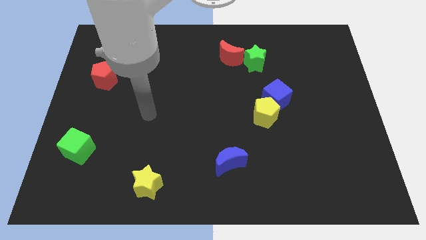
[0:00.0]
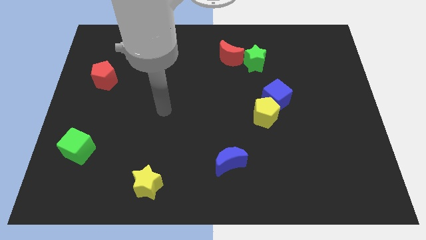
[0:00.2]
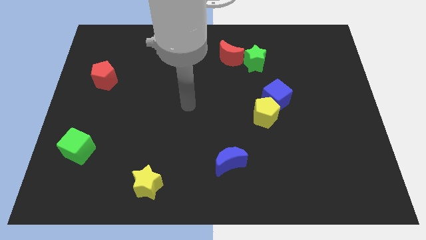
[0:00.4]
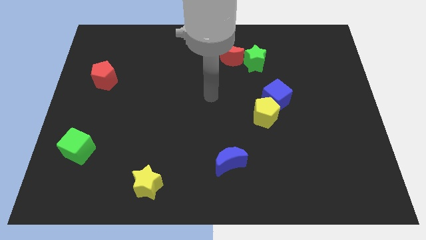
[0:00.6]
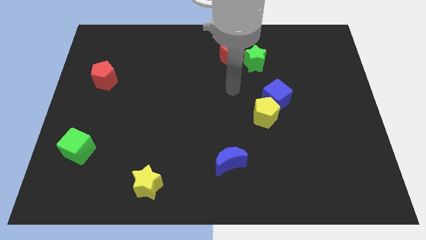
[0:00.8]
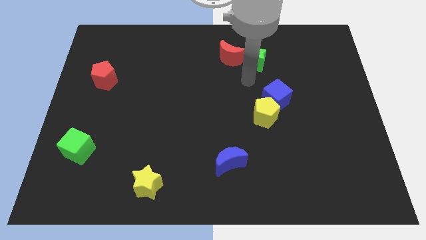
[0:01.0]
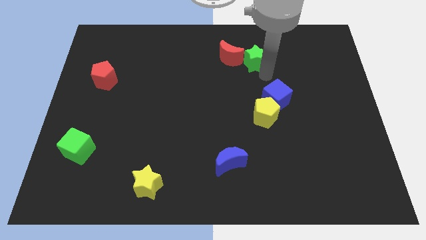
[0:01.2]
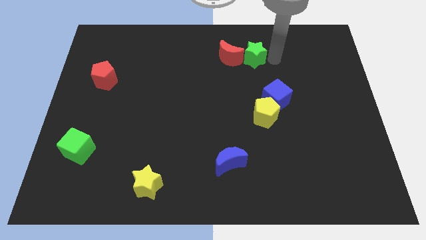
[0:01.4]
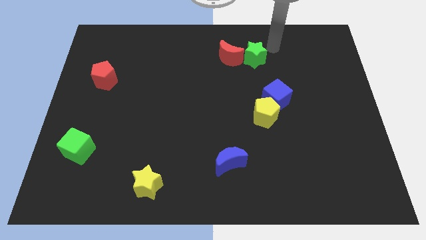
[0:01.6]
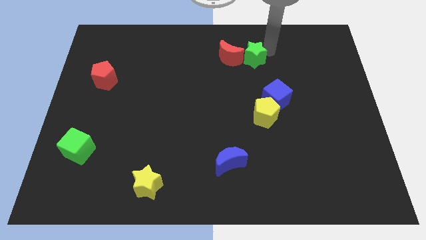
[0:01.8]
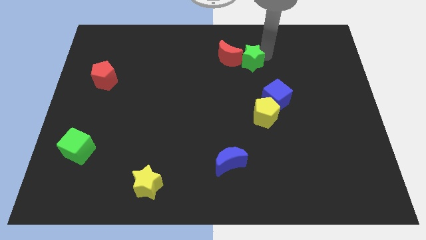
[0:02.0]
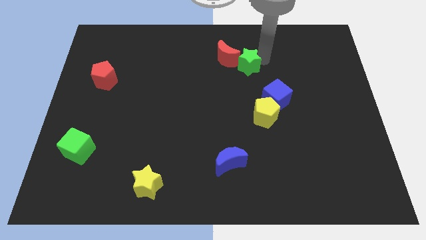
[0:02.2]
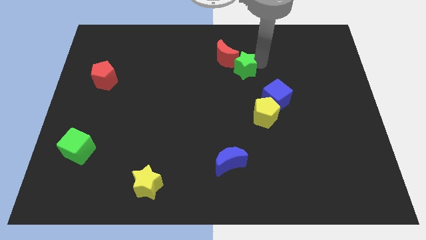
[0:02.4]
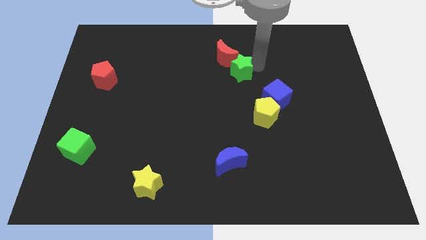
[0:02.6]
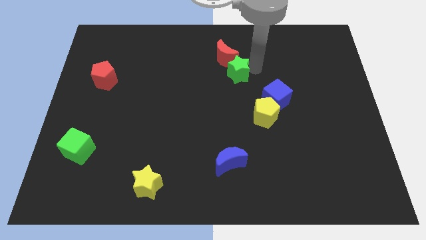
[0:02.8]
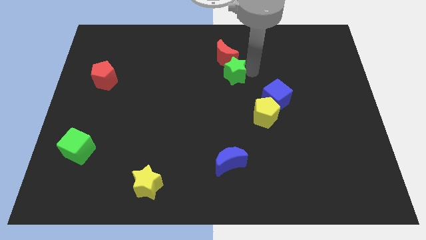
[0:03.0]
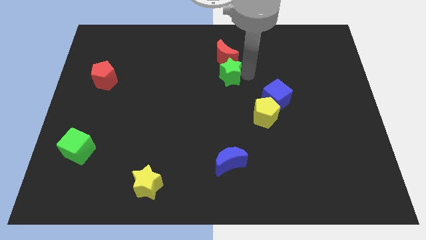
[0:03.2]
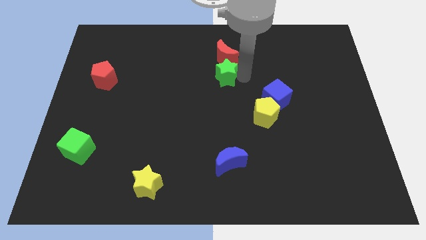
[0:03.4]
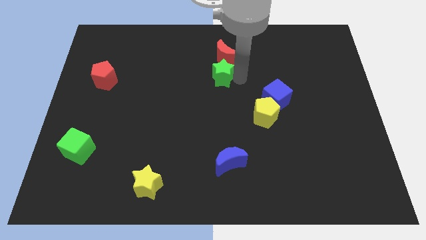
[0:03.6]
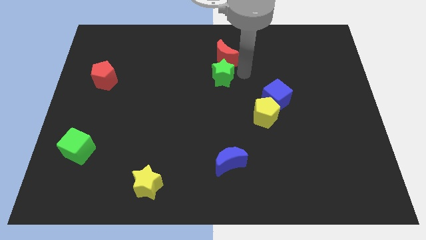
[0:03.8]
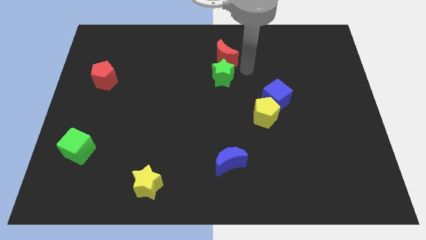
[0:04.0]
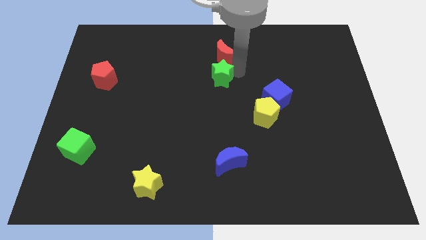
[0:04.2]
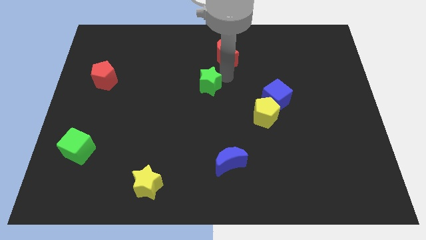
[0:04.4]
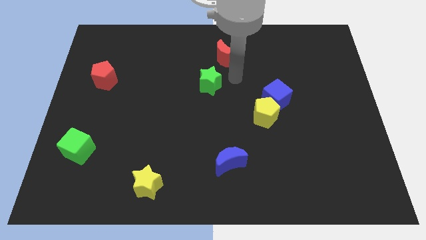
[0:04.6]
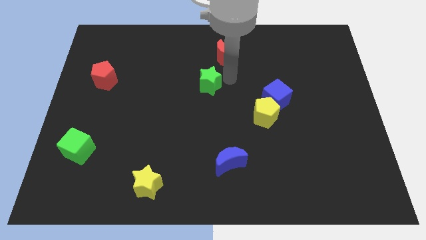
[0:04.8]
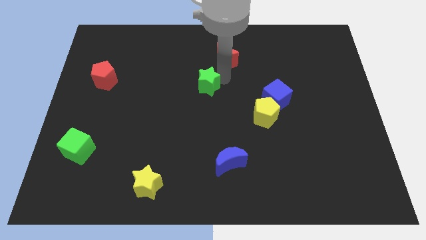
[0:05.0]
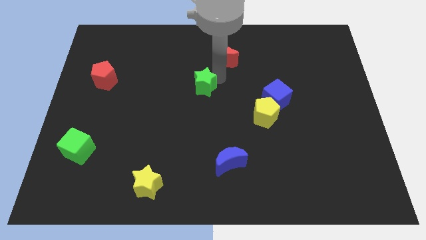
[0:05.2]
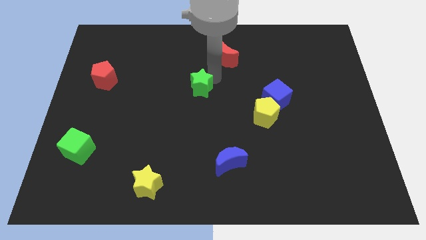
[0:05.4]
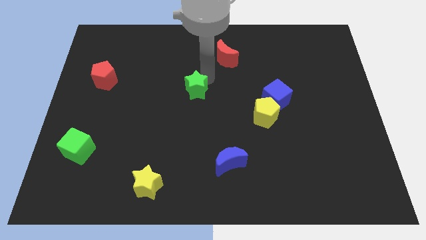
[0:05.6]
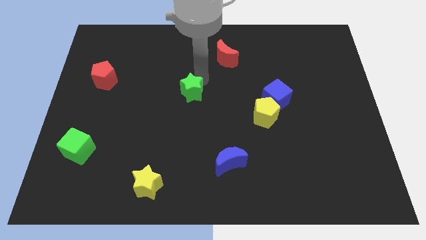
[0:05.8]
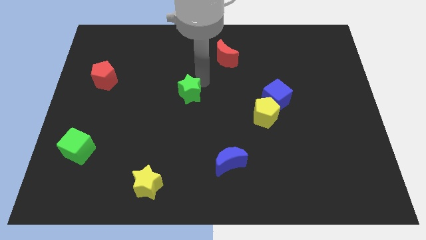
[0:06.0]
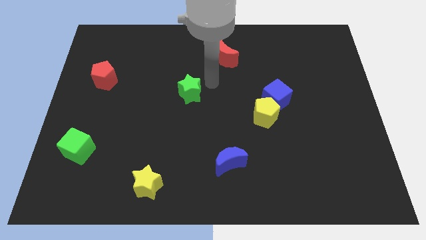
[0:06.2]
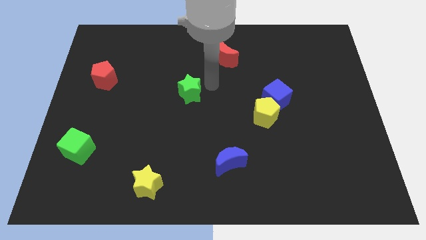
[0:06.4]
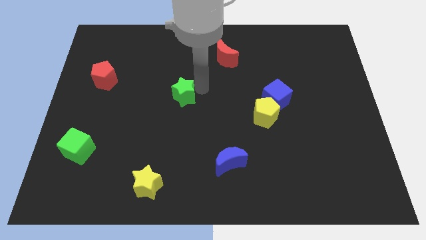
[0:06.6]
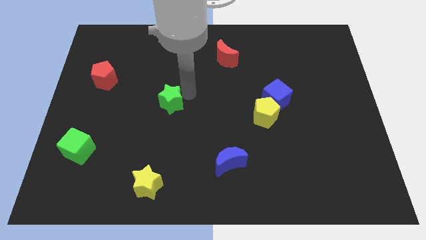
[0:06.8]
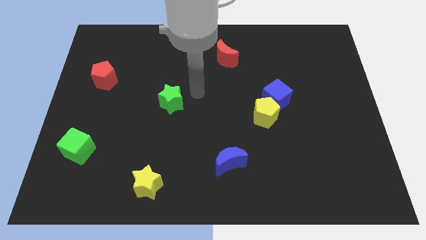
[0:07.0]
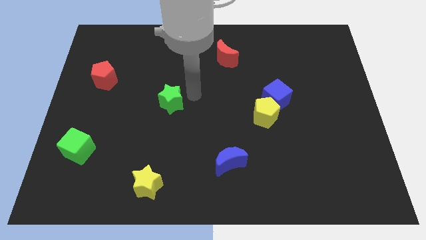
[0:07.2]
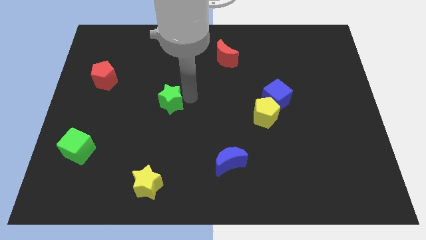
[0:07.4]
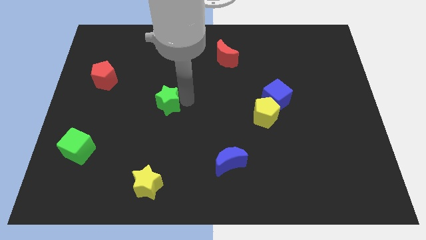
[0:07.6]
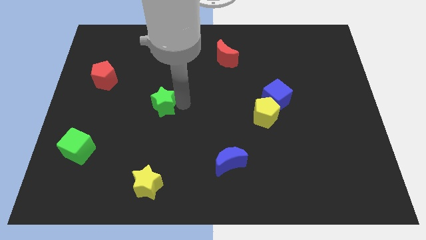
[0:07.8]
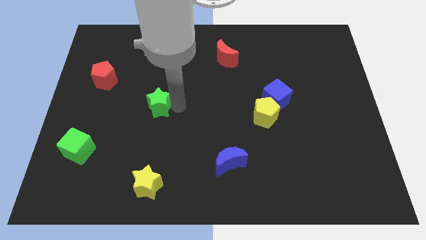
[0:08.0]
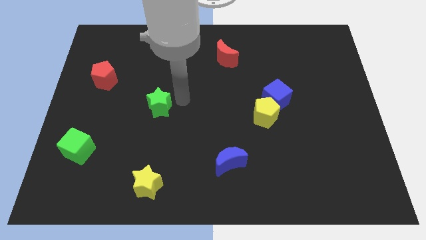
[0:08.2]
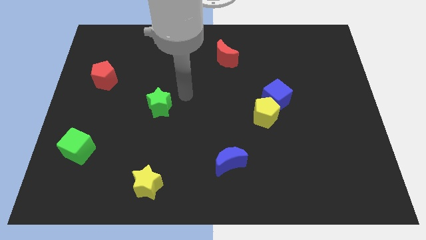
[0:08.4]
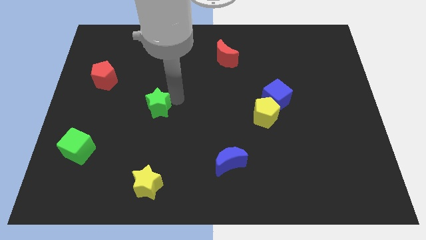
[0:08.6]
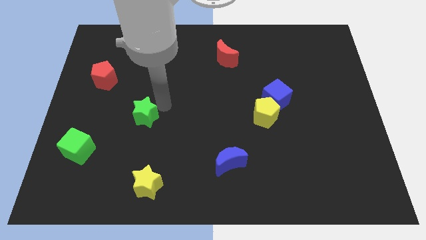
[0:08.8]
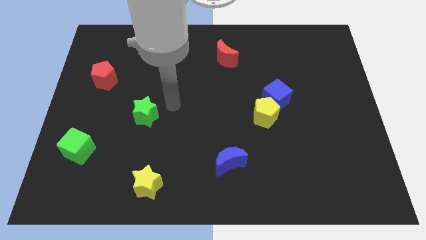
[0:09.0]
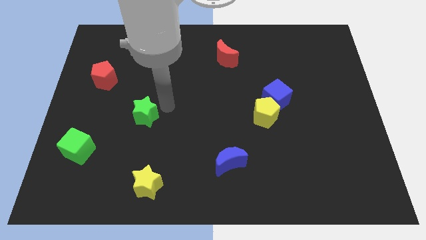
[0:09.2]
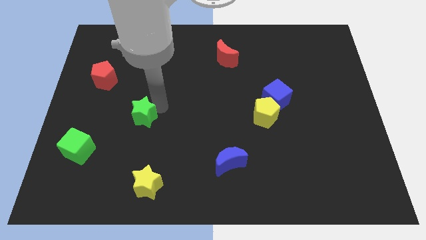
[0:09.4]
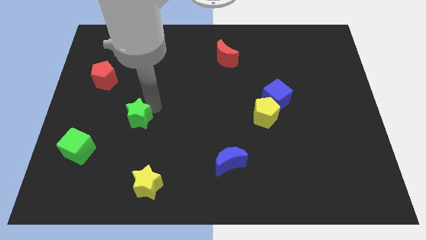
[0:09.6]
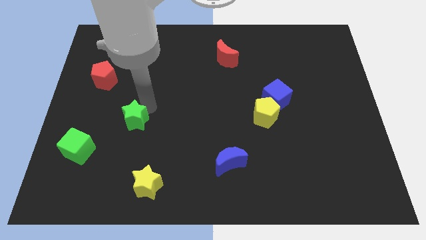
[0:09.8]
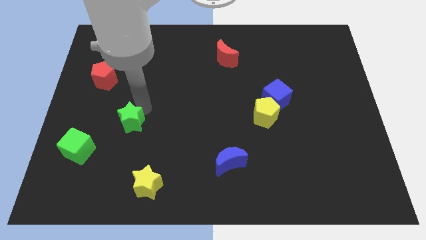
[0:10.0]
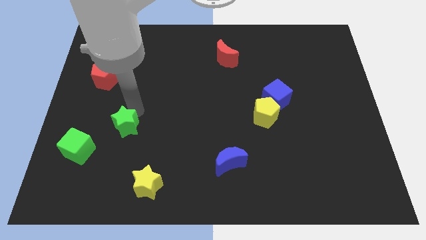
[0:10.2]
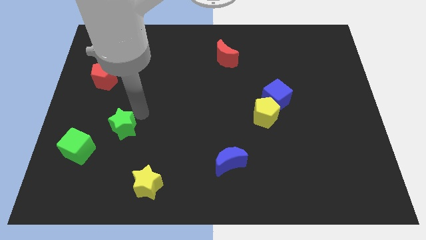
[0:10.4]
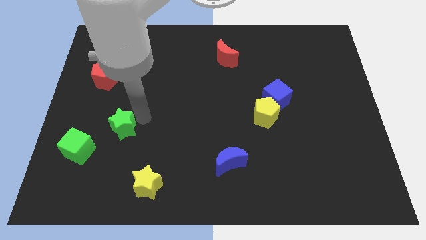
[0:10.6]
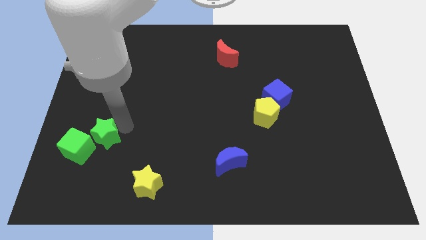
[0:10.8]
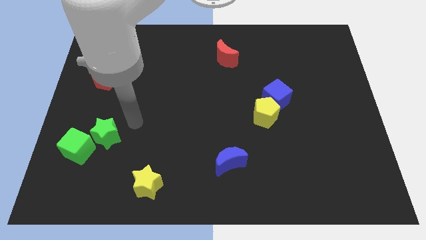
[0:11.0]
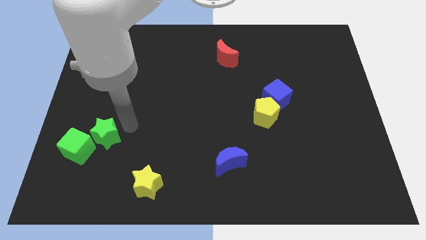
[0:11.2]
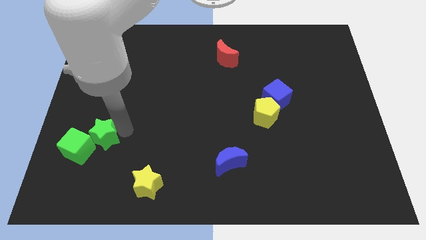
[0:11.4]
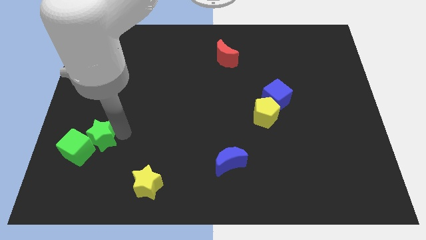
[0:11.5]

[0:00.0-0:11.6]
push the green star close to the green cube

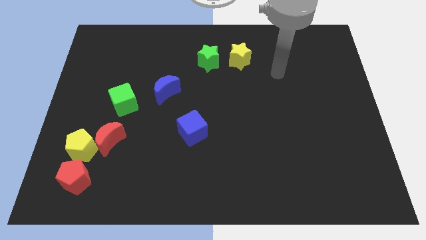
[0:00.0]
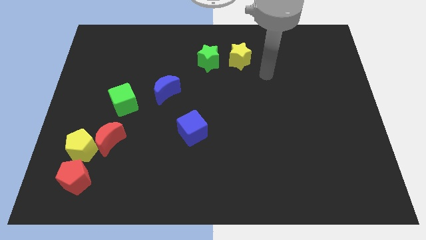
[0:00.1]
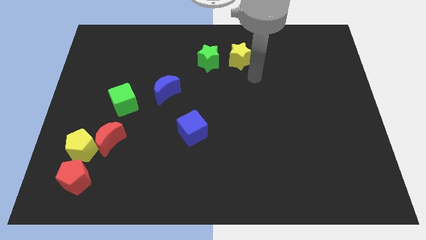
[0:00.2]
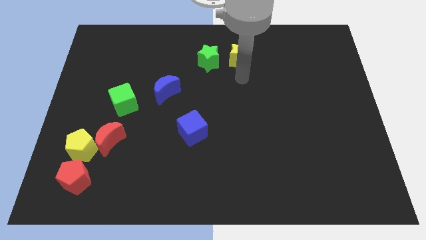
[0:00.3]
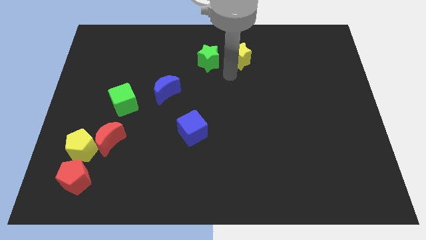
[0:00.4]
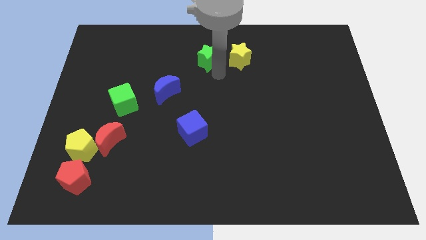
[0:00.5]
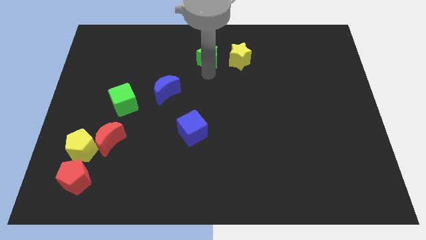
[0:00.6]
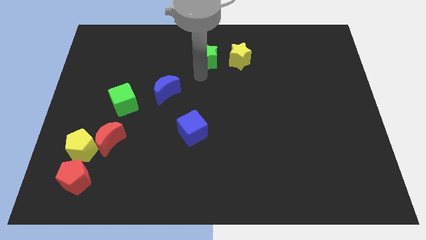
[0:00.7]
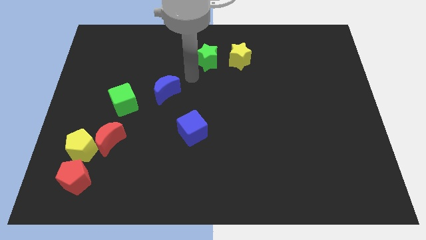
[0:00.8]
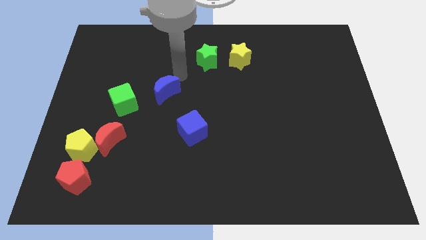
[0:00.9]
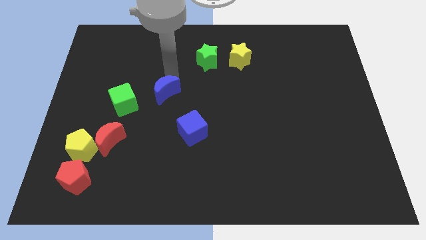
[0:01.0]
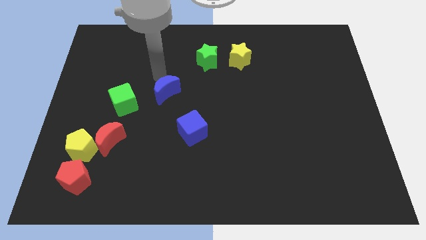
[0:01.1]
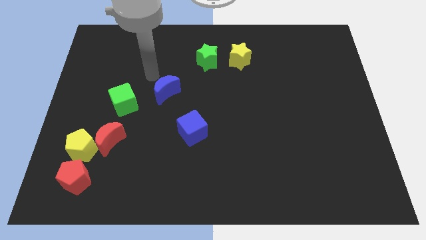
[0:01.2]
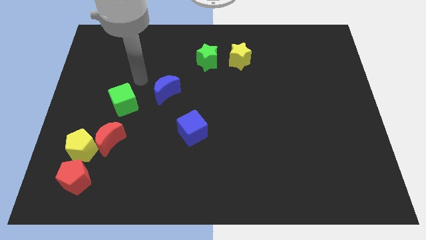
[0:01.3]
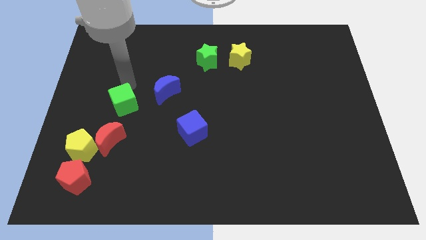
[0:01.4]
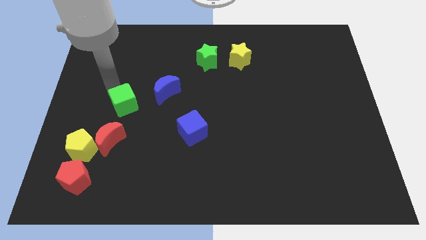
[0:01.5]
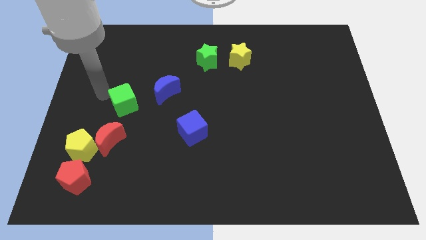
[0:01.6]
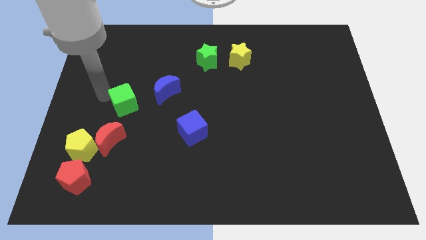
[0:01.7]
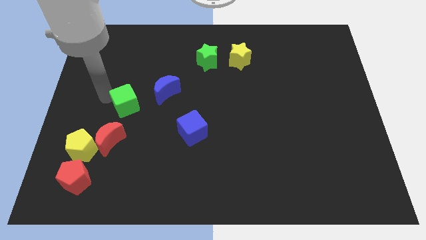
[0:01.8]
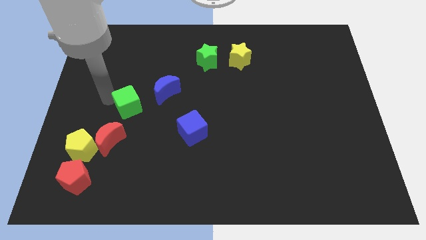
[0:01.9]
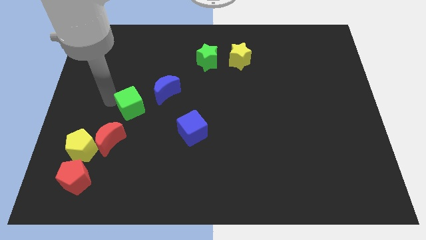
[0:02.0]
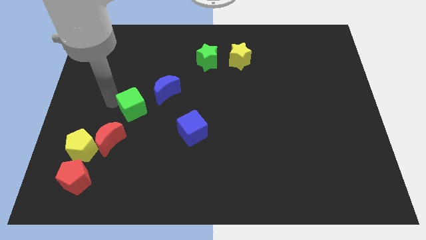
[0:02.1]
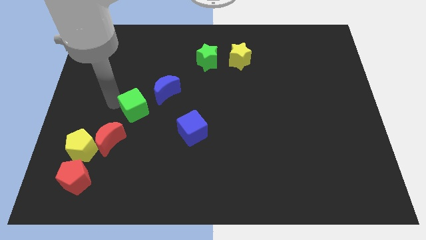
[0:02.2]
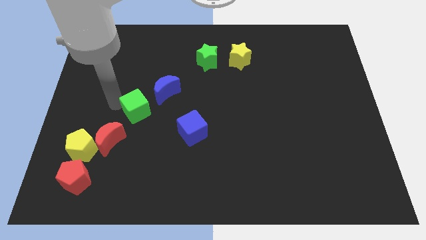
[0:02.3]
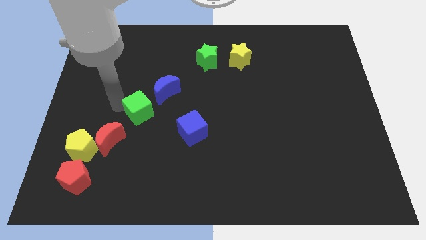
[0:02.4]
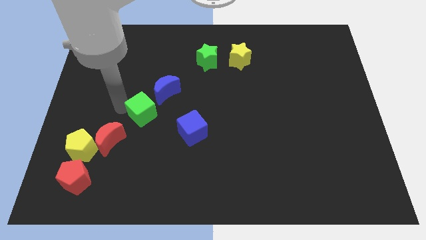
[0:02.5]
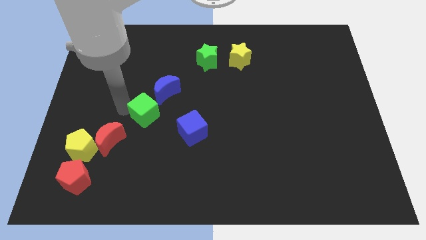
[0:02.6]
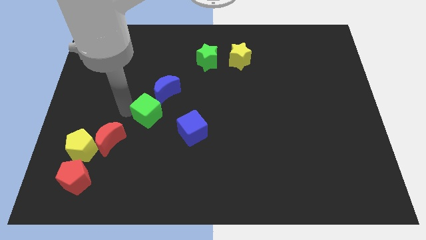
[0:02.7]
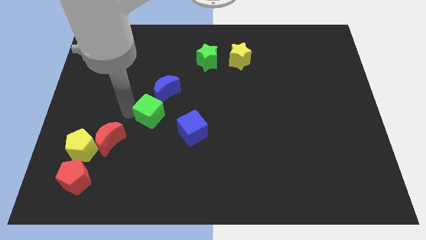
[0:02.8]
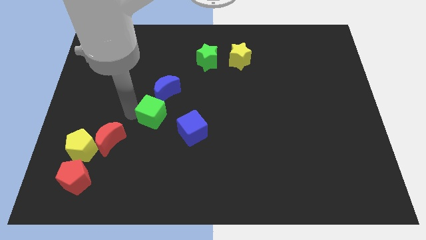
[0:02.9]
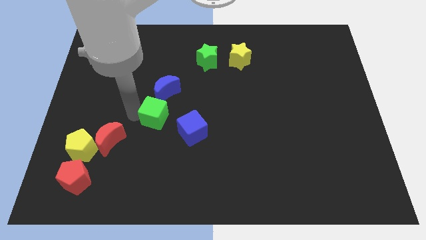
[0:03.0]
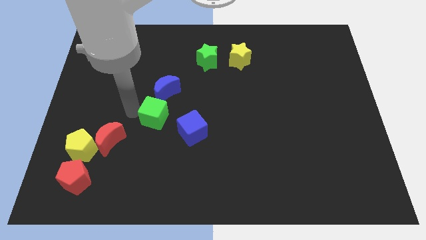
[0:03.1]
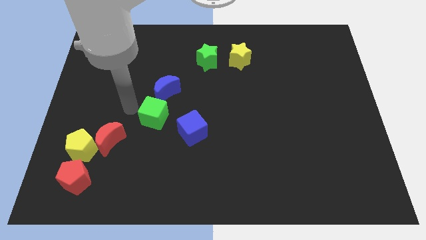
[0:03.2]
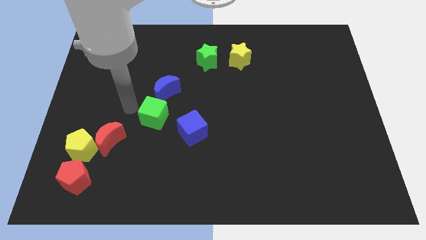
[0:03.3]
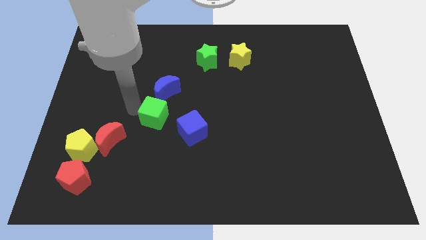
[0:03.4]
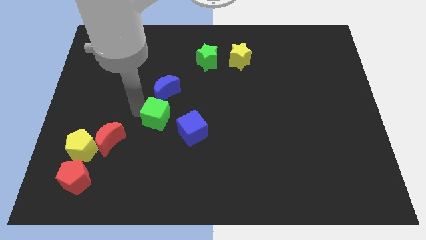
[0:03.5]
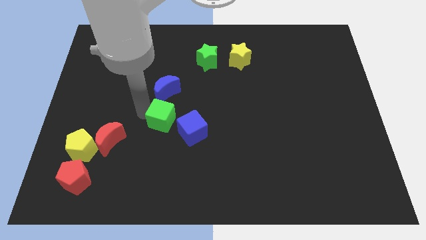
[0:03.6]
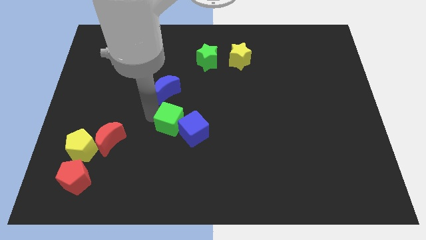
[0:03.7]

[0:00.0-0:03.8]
push the green cube to the blue cube
